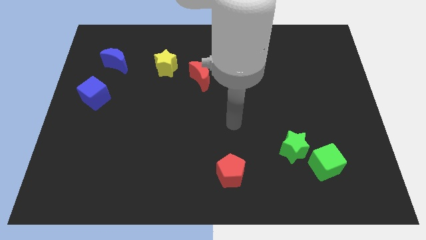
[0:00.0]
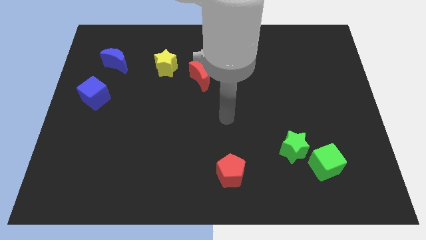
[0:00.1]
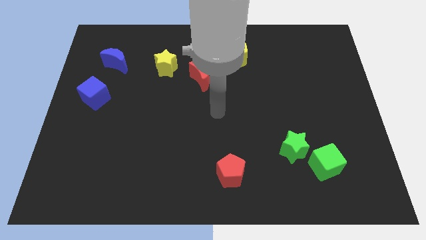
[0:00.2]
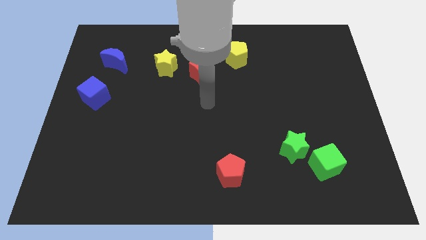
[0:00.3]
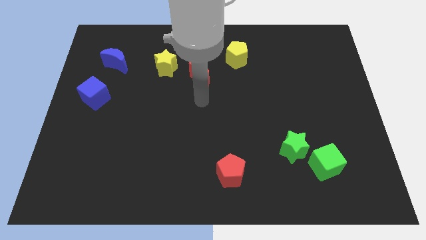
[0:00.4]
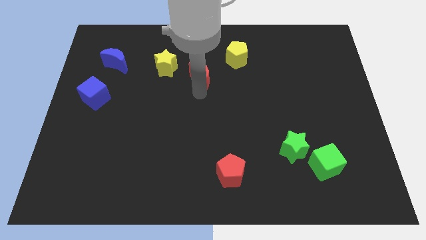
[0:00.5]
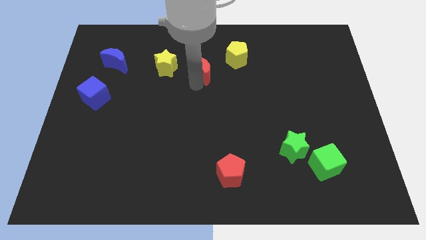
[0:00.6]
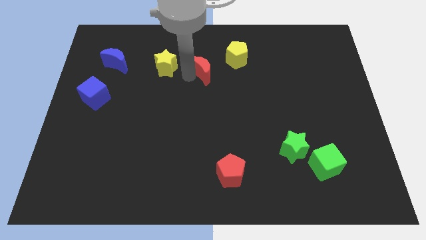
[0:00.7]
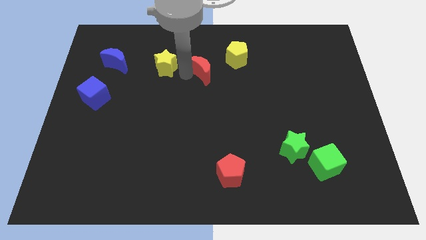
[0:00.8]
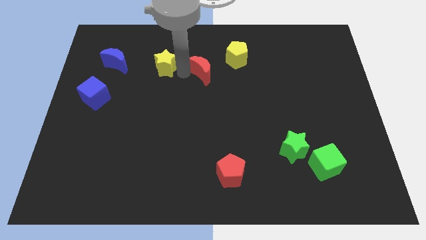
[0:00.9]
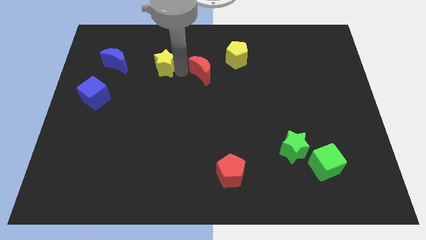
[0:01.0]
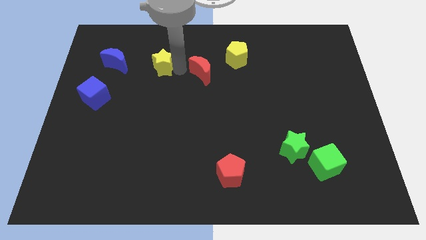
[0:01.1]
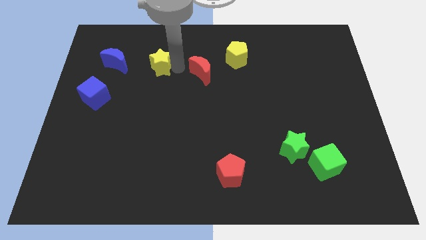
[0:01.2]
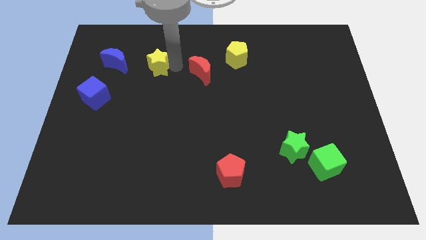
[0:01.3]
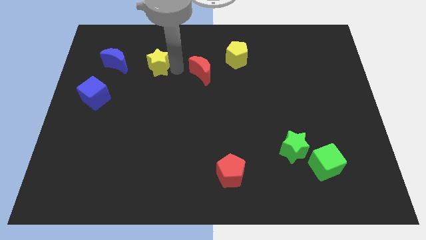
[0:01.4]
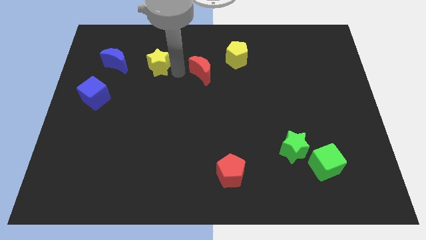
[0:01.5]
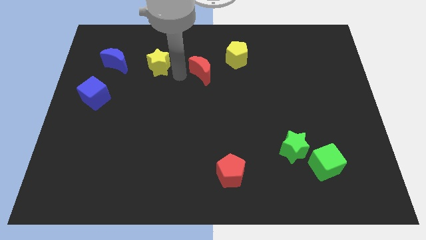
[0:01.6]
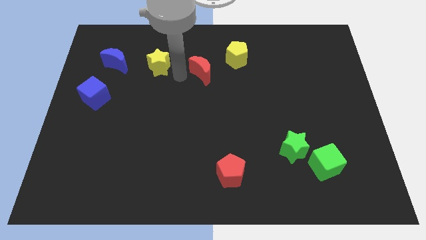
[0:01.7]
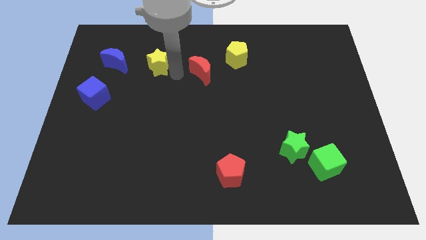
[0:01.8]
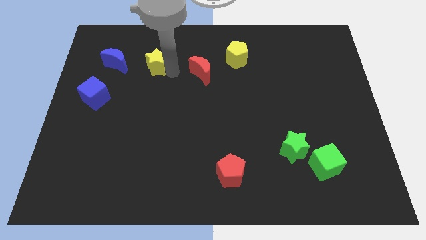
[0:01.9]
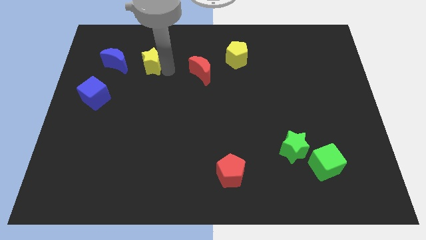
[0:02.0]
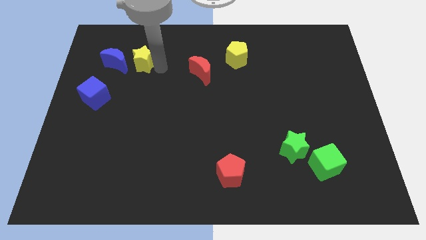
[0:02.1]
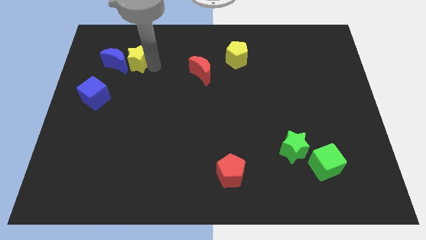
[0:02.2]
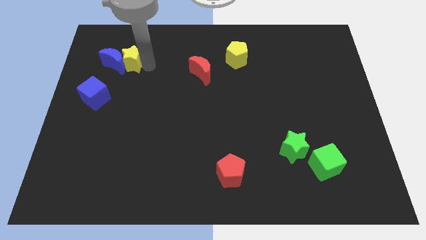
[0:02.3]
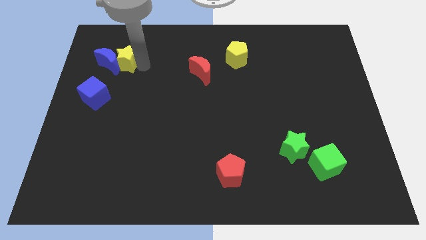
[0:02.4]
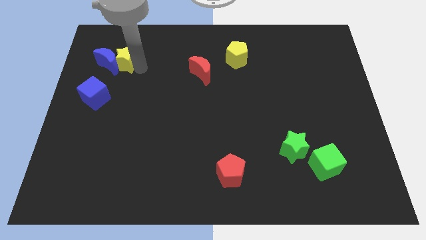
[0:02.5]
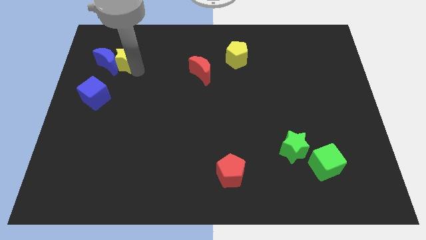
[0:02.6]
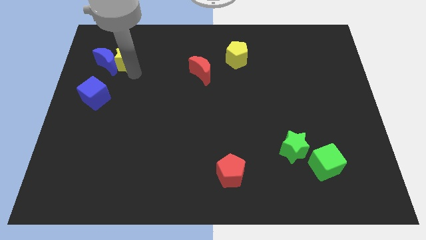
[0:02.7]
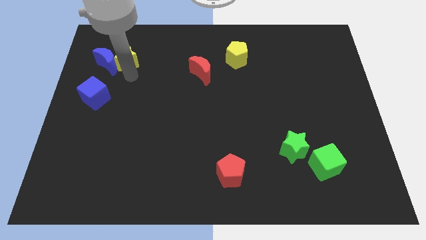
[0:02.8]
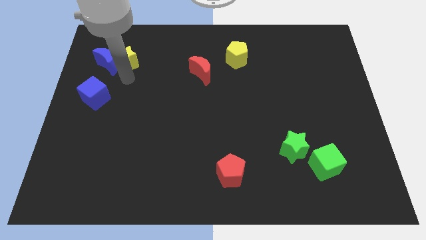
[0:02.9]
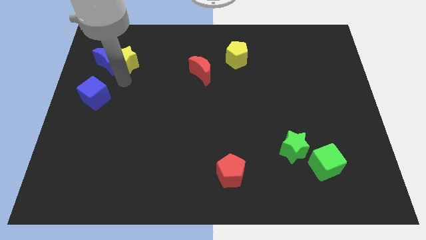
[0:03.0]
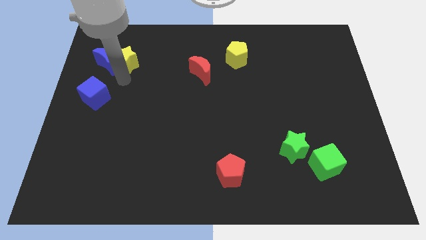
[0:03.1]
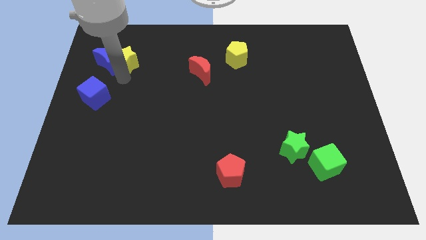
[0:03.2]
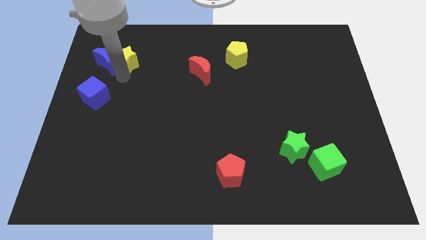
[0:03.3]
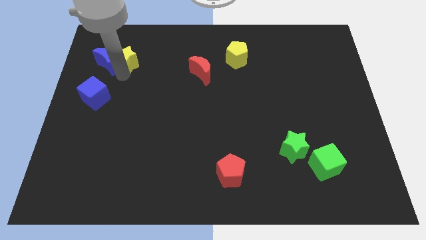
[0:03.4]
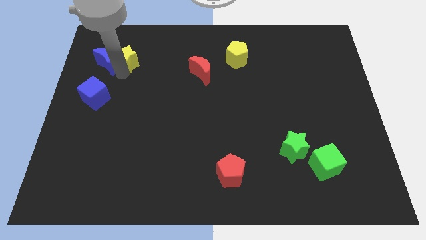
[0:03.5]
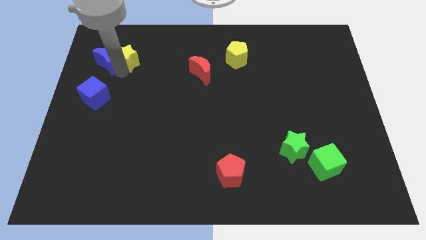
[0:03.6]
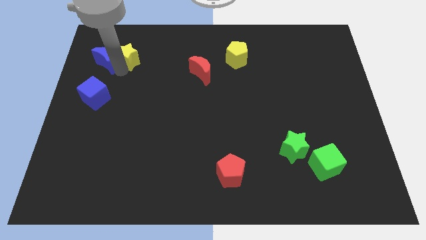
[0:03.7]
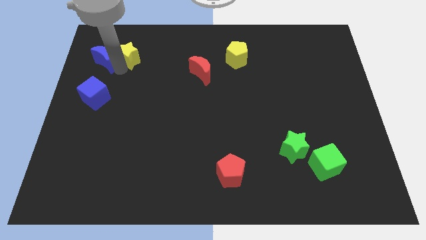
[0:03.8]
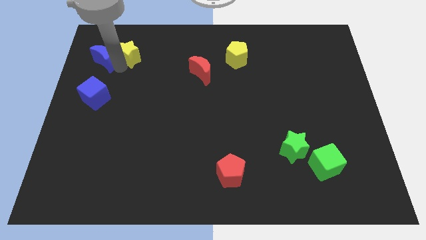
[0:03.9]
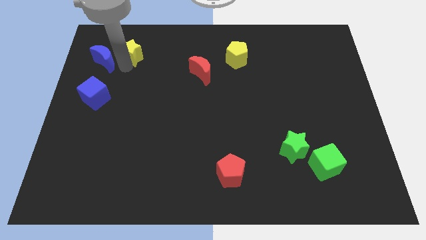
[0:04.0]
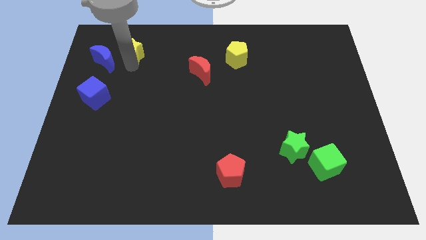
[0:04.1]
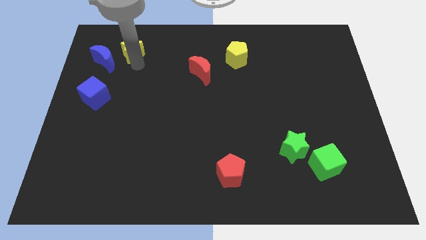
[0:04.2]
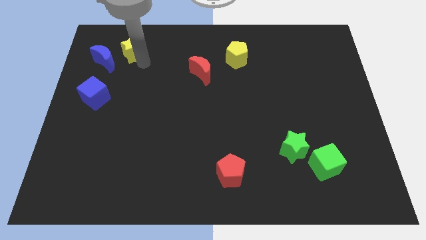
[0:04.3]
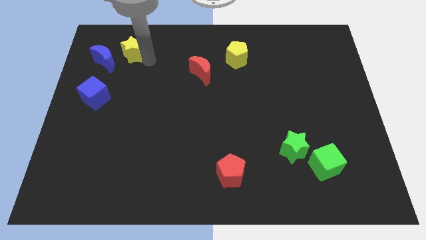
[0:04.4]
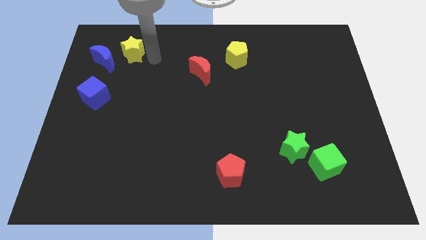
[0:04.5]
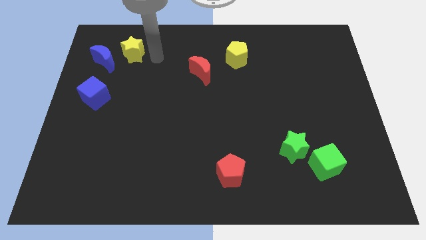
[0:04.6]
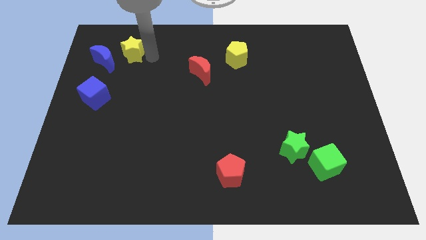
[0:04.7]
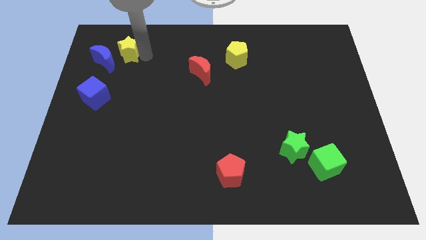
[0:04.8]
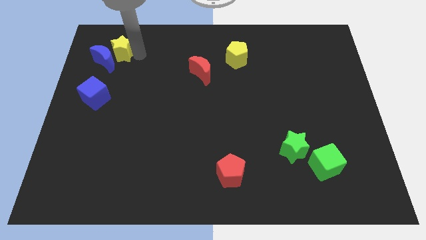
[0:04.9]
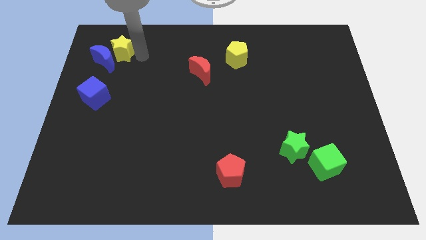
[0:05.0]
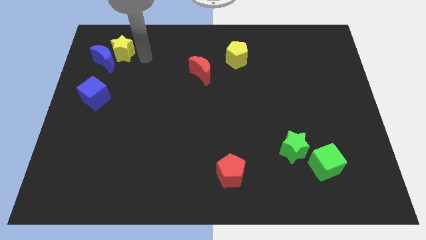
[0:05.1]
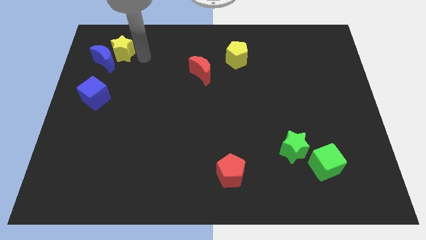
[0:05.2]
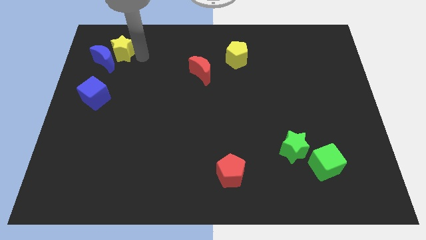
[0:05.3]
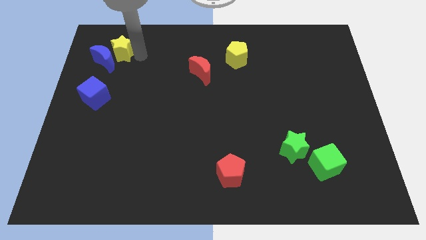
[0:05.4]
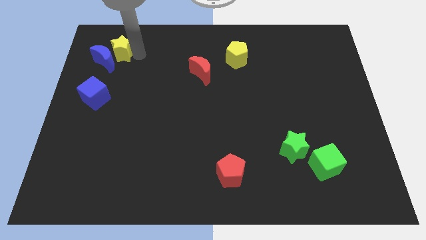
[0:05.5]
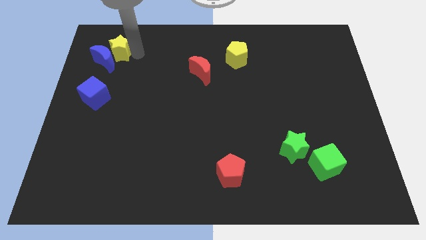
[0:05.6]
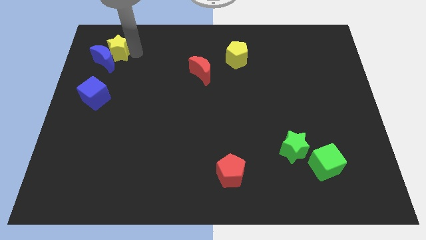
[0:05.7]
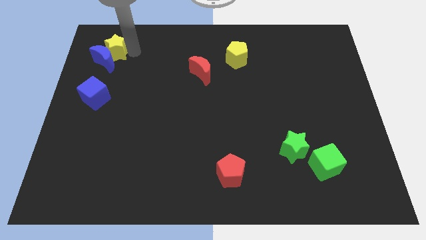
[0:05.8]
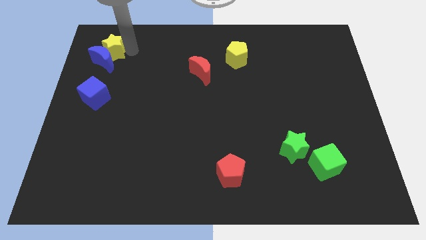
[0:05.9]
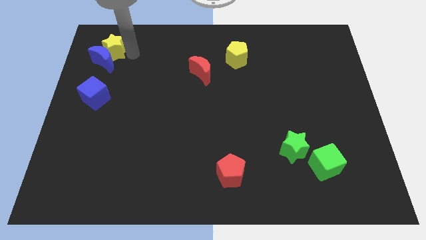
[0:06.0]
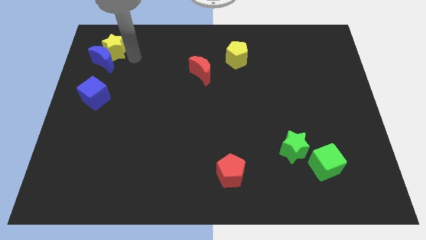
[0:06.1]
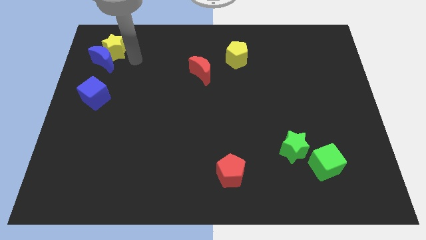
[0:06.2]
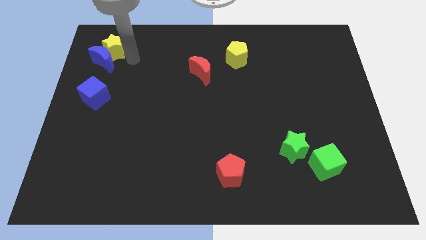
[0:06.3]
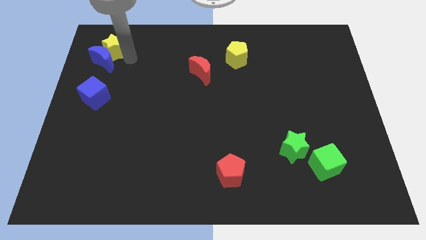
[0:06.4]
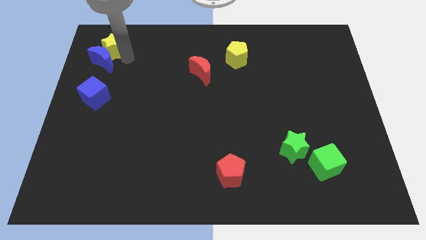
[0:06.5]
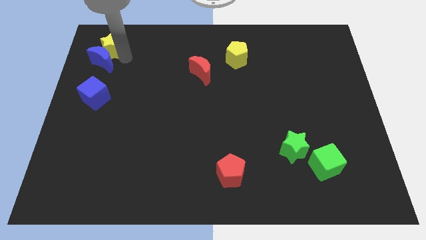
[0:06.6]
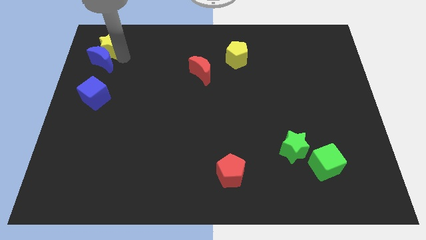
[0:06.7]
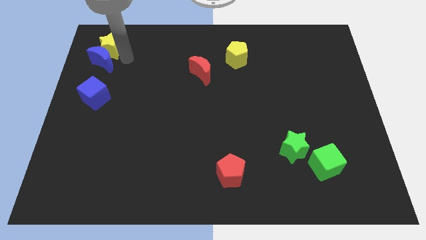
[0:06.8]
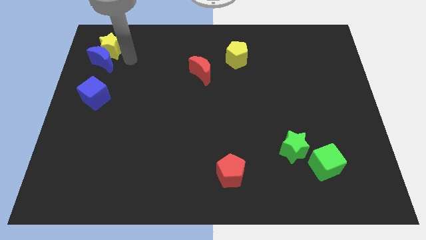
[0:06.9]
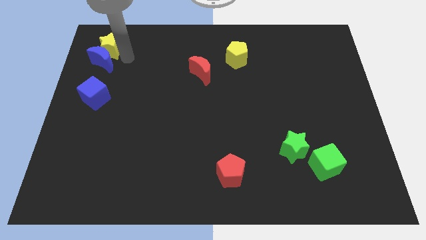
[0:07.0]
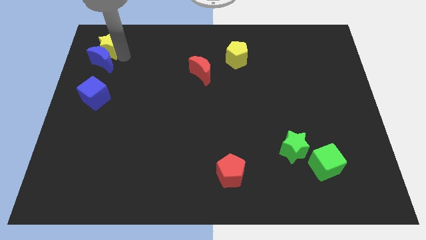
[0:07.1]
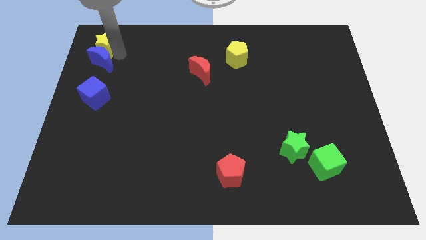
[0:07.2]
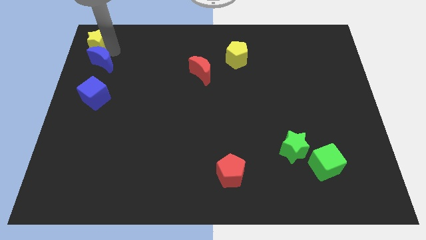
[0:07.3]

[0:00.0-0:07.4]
put the yellow star to the upper left corner
